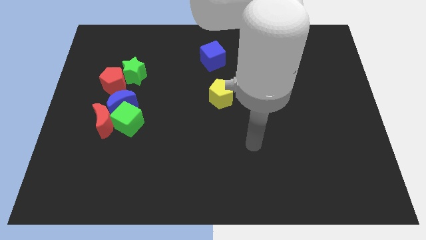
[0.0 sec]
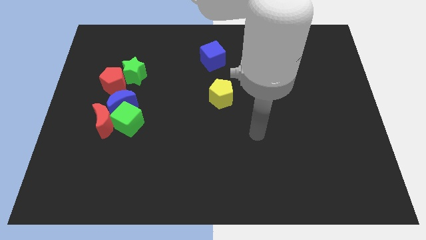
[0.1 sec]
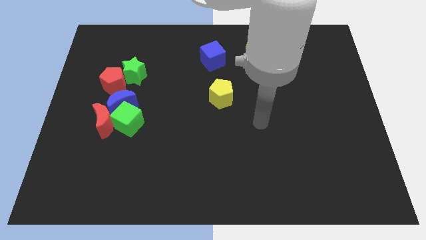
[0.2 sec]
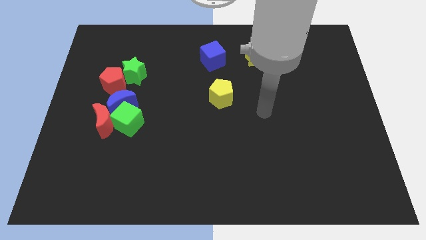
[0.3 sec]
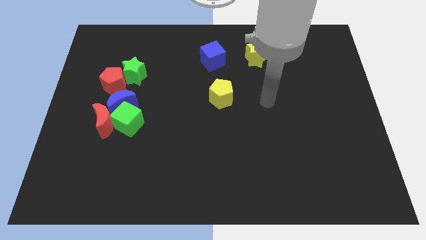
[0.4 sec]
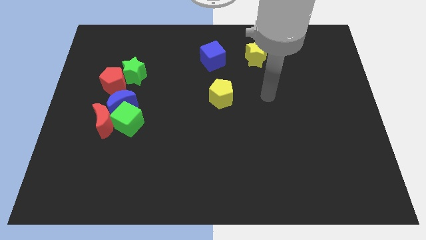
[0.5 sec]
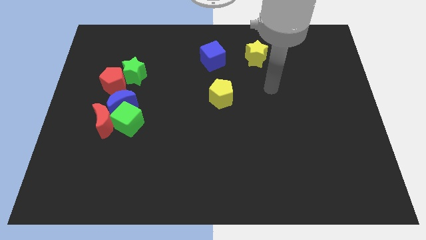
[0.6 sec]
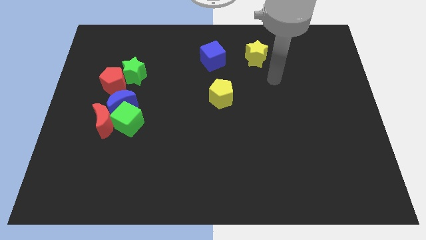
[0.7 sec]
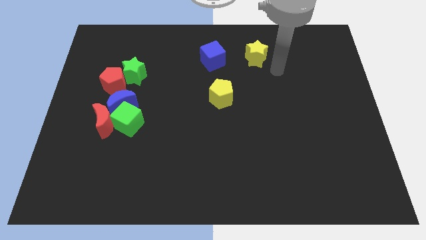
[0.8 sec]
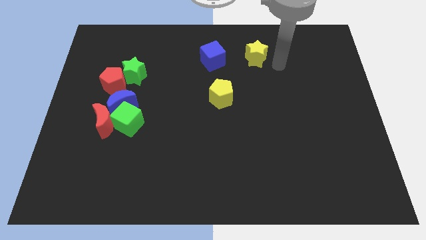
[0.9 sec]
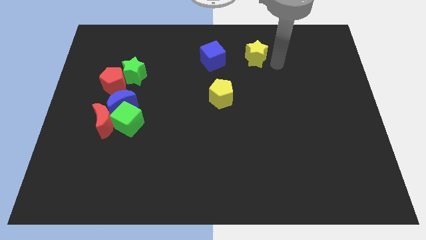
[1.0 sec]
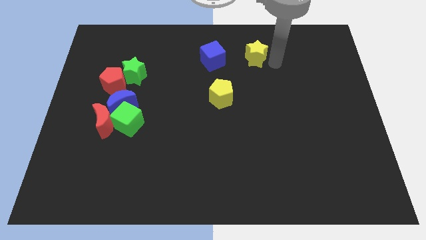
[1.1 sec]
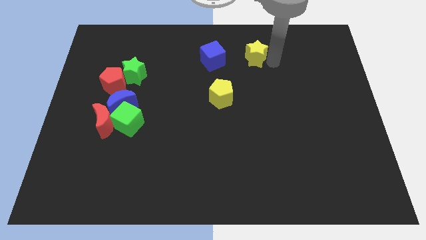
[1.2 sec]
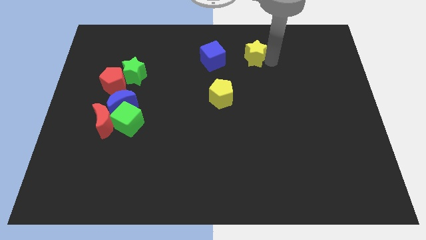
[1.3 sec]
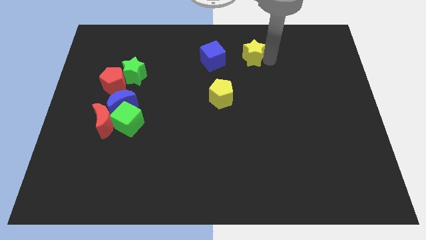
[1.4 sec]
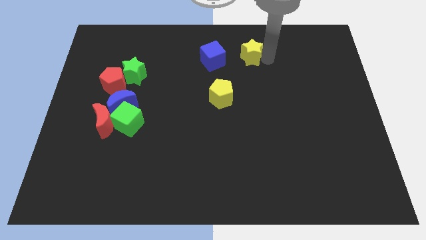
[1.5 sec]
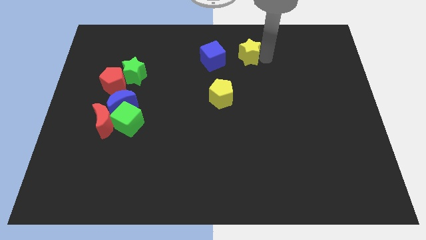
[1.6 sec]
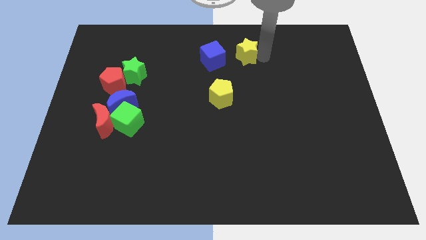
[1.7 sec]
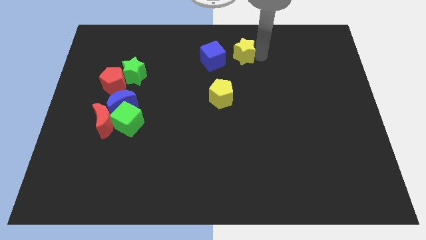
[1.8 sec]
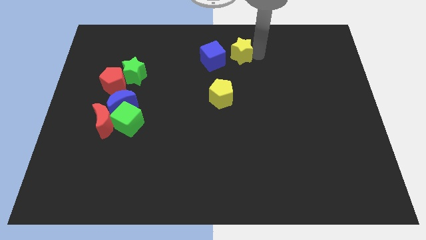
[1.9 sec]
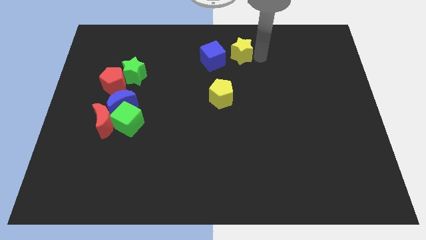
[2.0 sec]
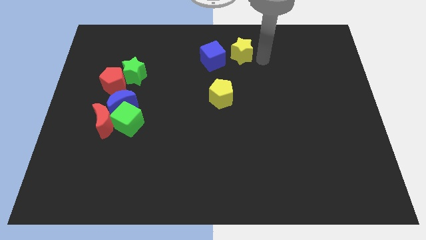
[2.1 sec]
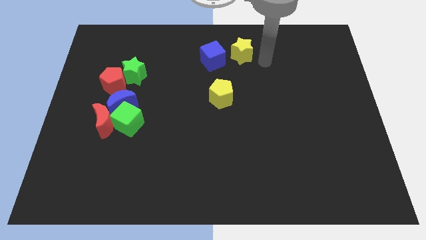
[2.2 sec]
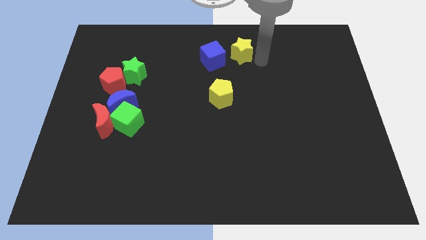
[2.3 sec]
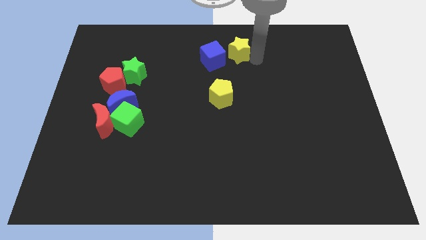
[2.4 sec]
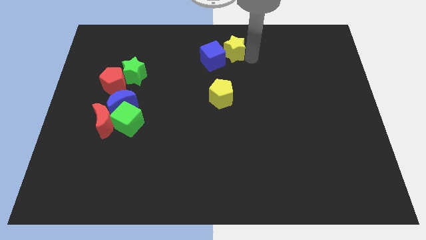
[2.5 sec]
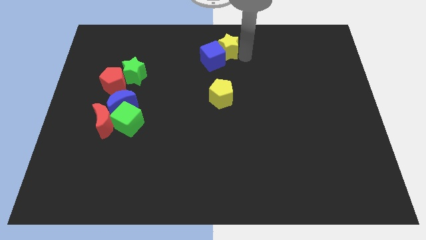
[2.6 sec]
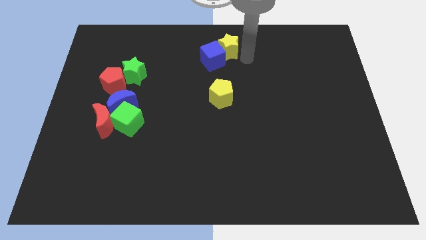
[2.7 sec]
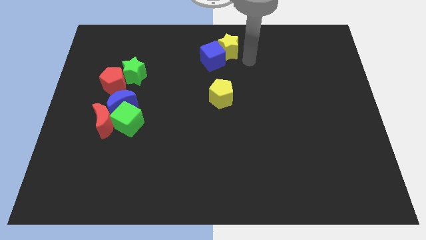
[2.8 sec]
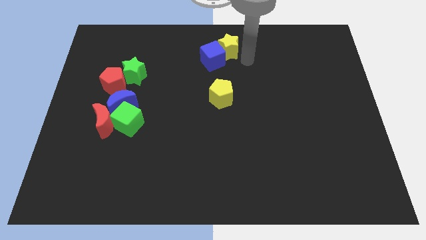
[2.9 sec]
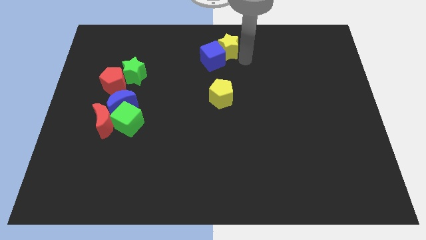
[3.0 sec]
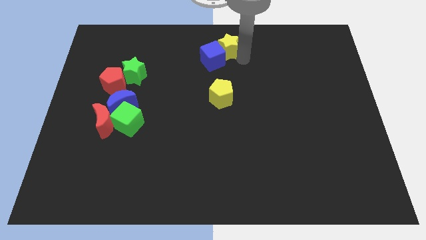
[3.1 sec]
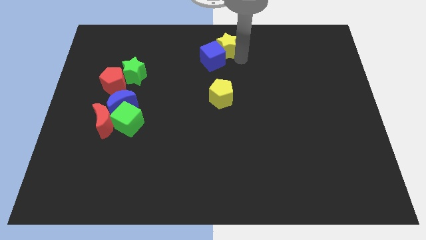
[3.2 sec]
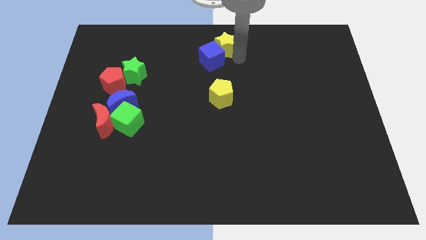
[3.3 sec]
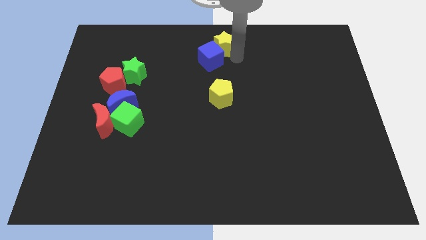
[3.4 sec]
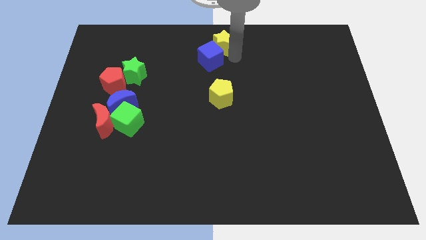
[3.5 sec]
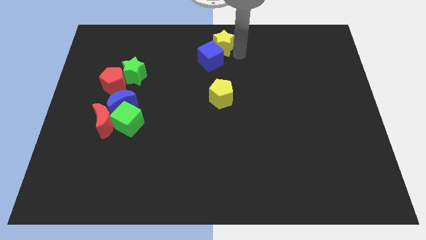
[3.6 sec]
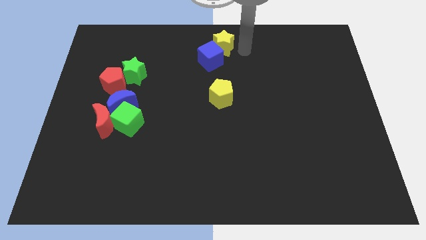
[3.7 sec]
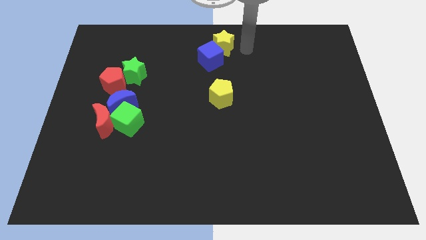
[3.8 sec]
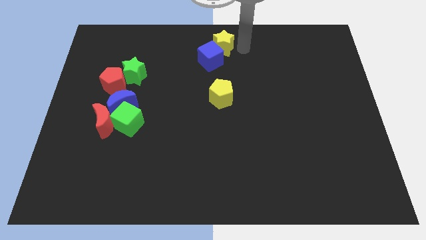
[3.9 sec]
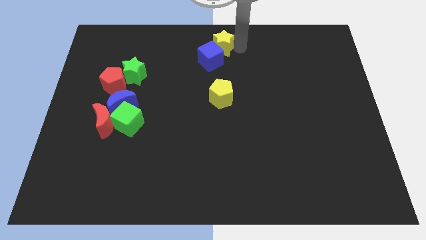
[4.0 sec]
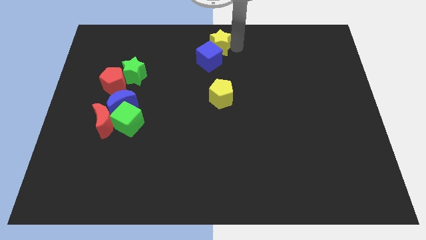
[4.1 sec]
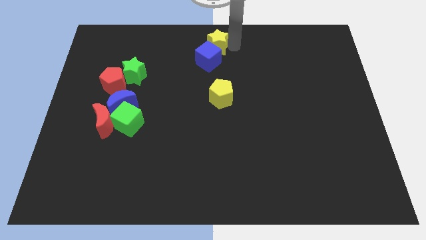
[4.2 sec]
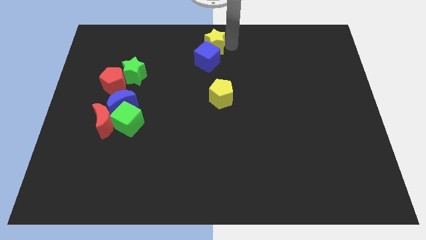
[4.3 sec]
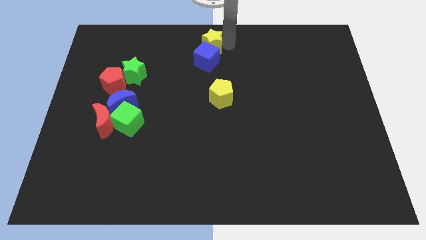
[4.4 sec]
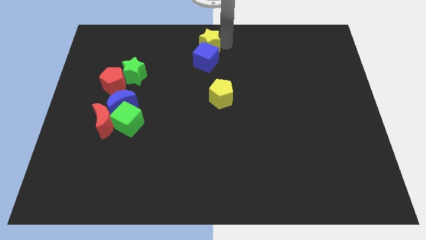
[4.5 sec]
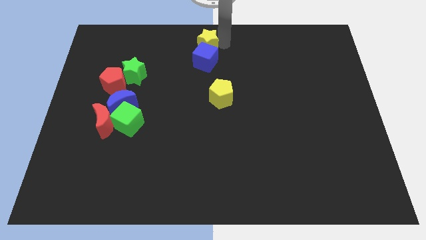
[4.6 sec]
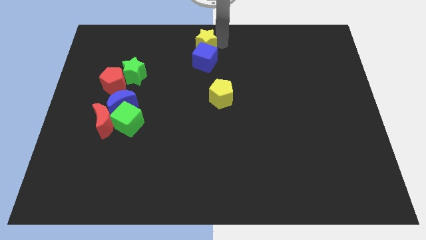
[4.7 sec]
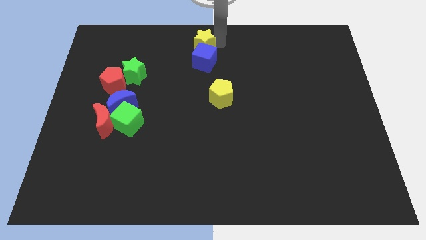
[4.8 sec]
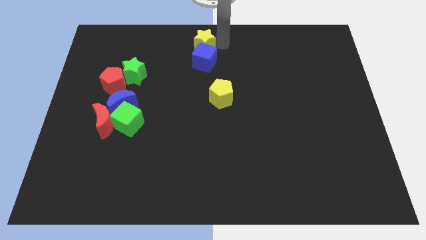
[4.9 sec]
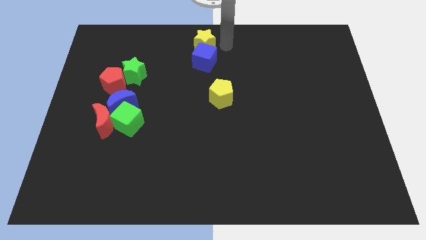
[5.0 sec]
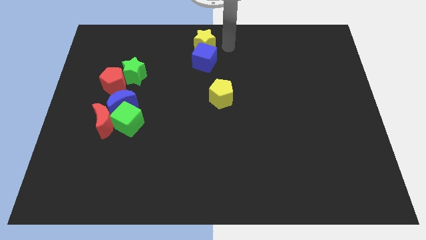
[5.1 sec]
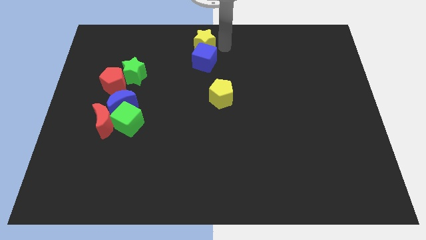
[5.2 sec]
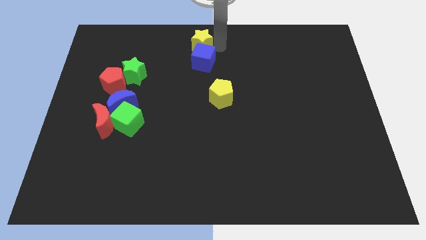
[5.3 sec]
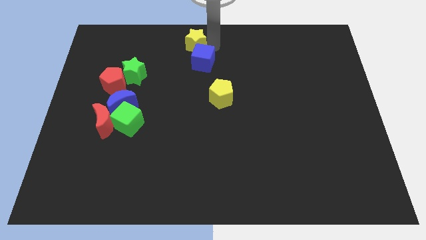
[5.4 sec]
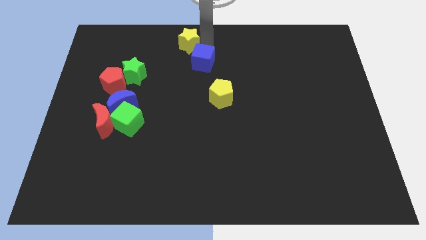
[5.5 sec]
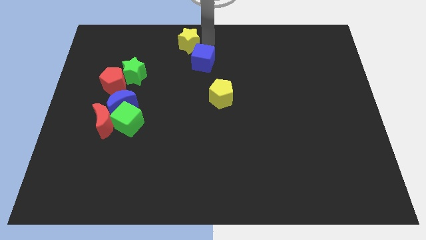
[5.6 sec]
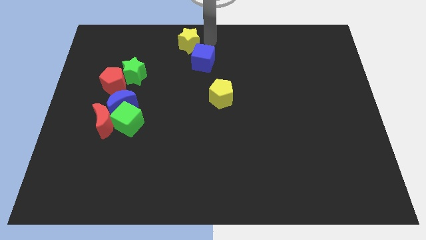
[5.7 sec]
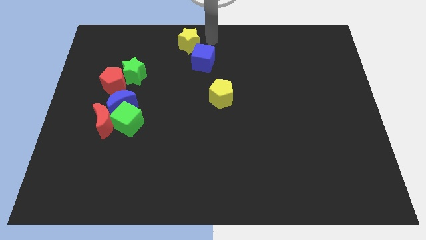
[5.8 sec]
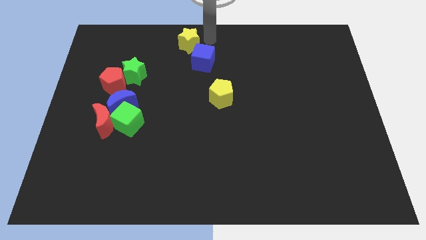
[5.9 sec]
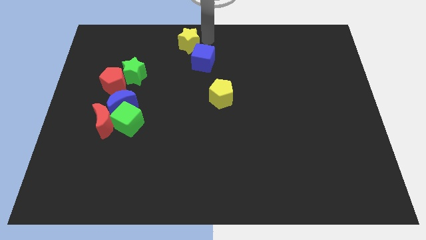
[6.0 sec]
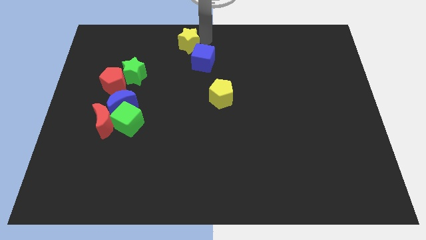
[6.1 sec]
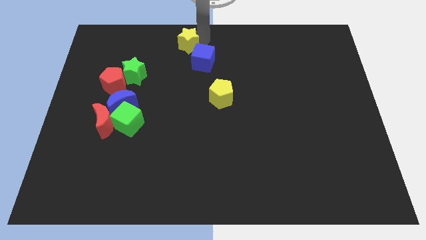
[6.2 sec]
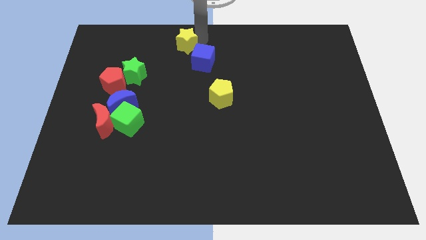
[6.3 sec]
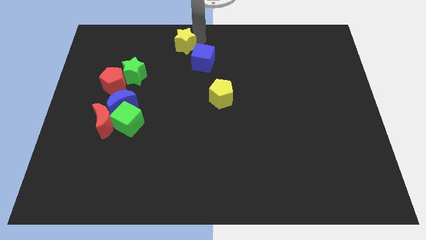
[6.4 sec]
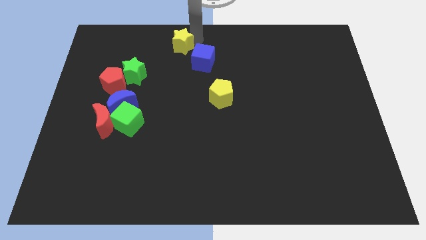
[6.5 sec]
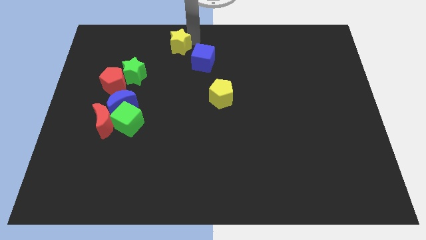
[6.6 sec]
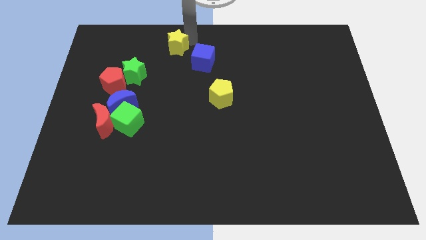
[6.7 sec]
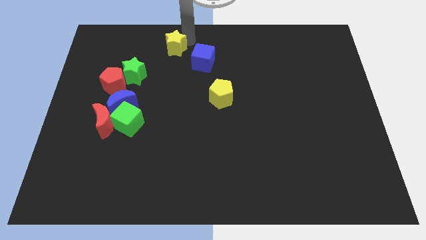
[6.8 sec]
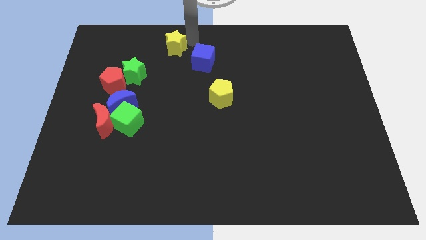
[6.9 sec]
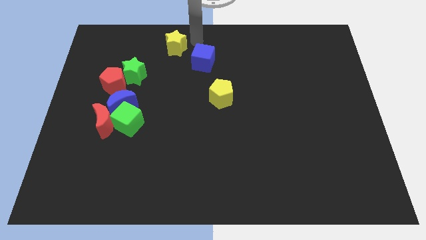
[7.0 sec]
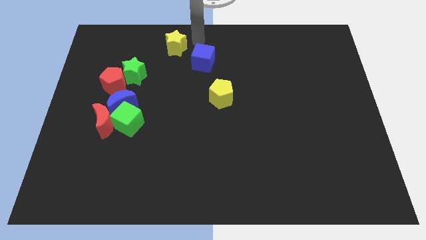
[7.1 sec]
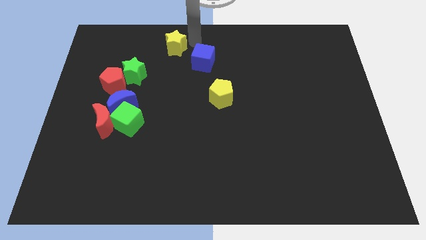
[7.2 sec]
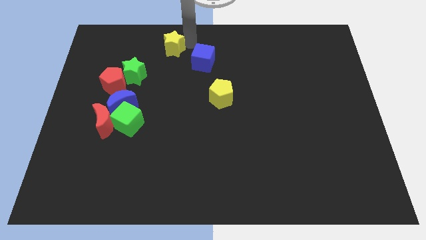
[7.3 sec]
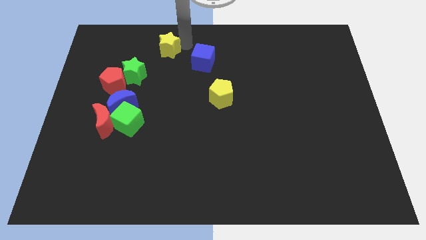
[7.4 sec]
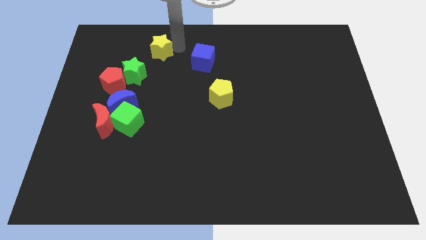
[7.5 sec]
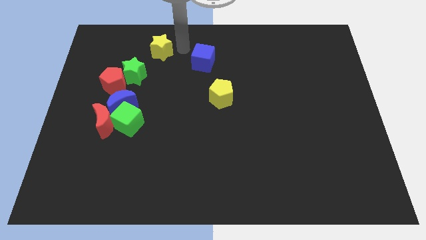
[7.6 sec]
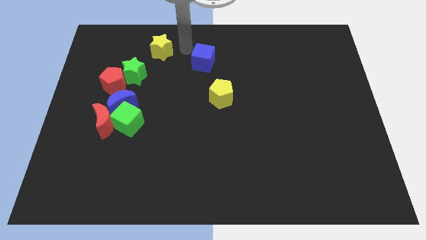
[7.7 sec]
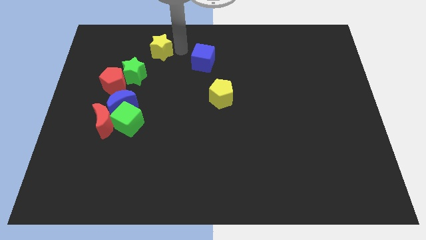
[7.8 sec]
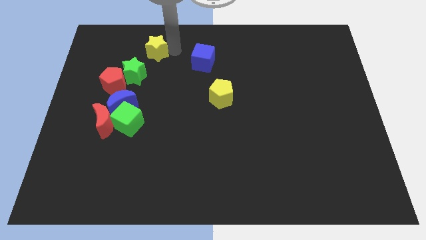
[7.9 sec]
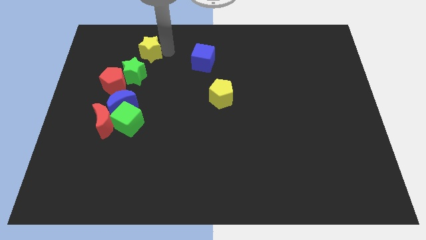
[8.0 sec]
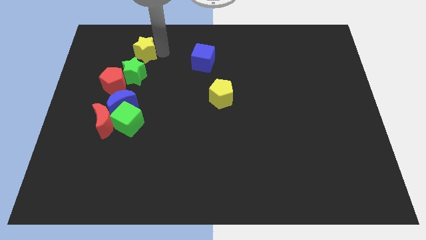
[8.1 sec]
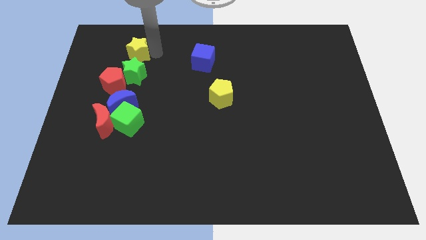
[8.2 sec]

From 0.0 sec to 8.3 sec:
push the yellow star above the red pentagon
